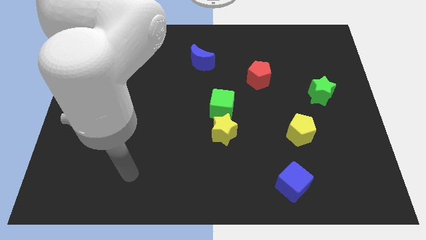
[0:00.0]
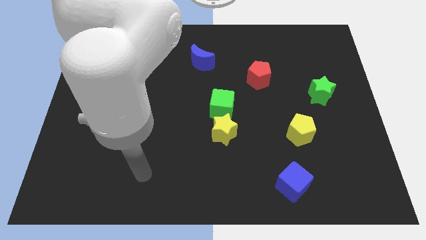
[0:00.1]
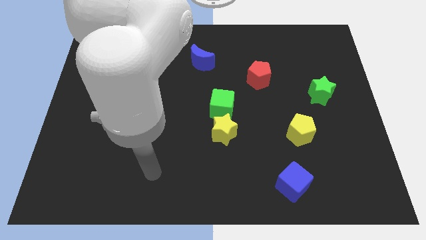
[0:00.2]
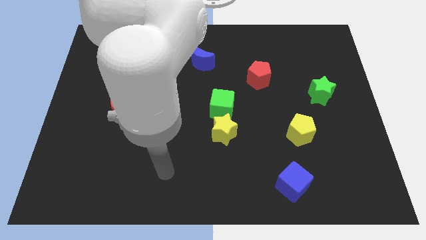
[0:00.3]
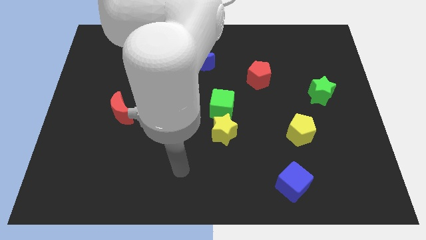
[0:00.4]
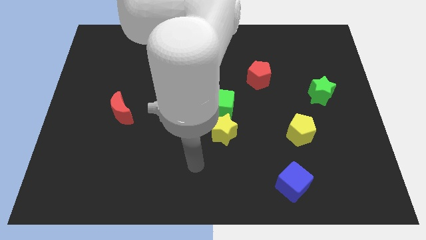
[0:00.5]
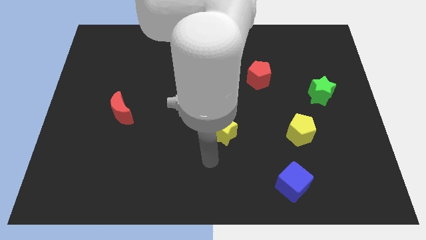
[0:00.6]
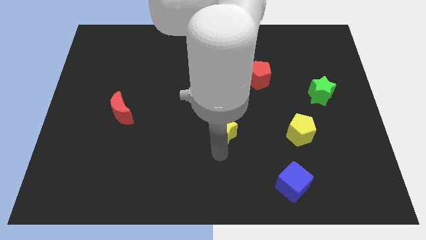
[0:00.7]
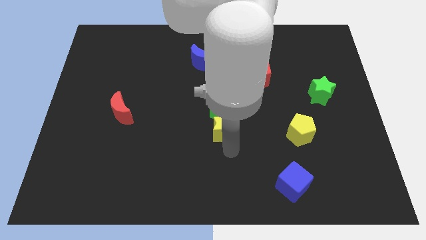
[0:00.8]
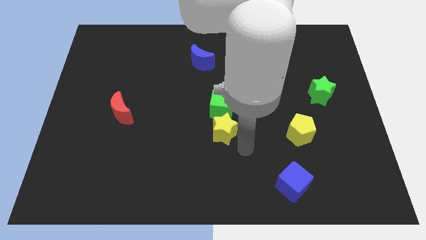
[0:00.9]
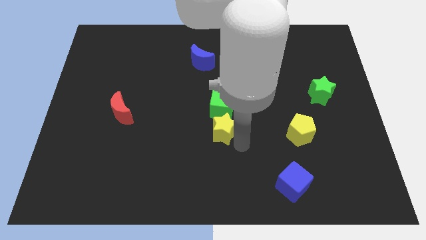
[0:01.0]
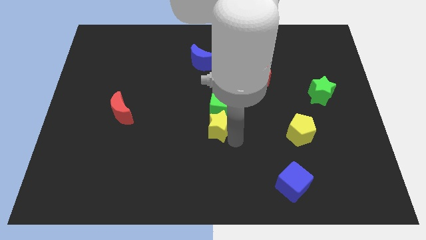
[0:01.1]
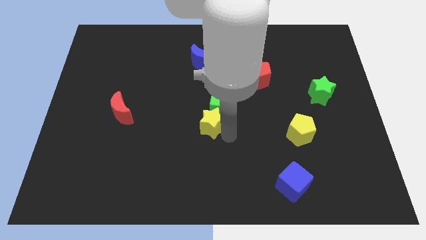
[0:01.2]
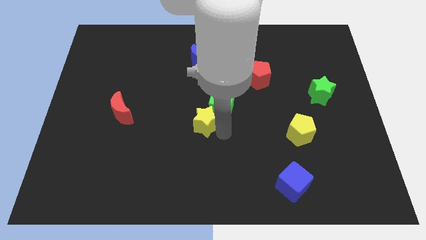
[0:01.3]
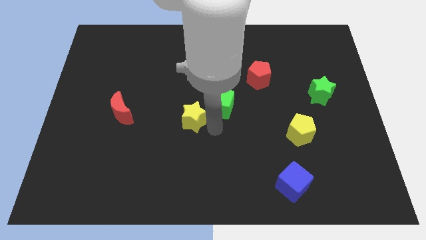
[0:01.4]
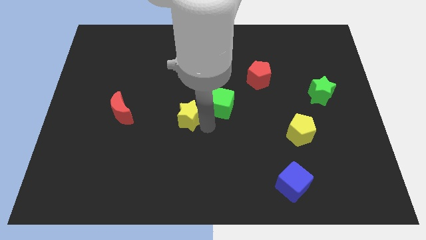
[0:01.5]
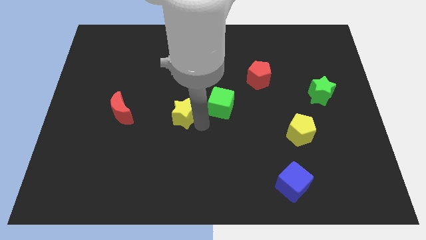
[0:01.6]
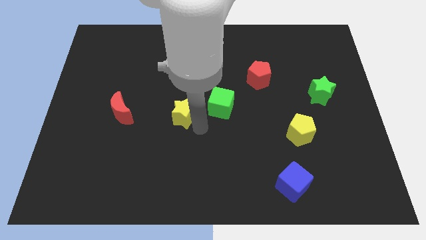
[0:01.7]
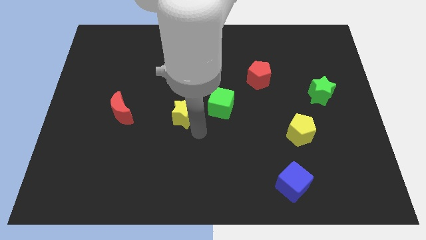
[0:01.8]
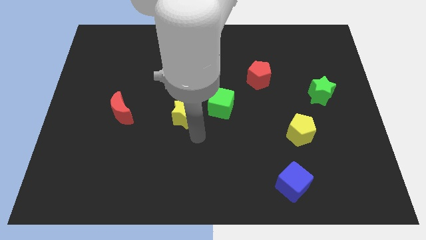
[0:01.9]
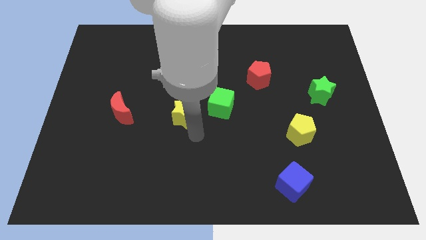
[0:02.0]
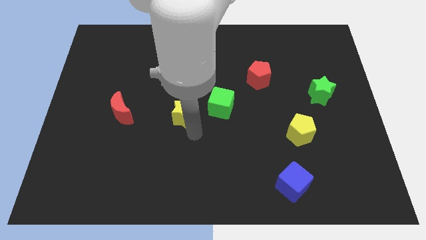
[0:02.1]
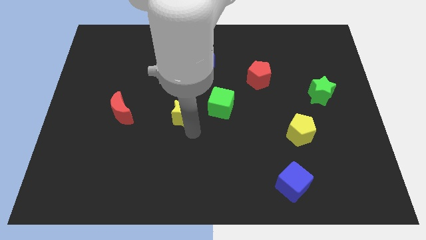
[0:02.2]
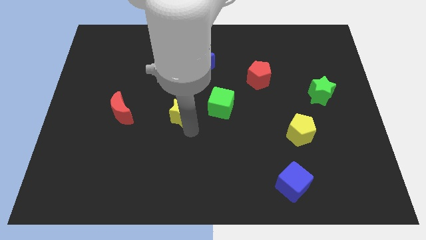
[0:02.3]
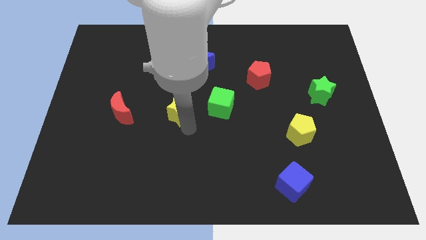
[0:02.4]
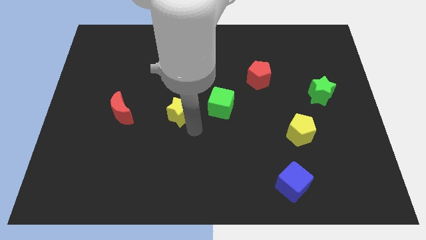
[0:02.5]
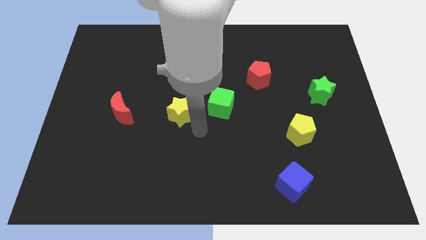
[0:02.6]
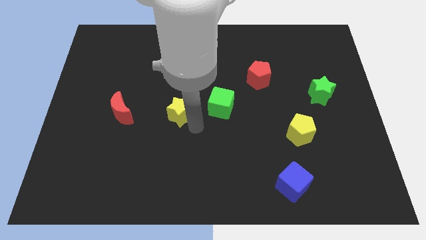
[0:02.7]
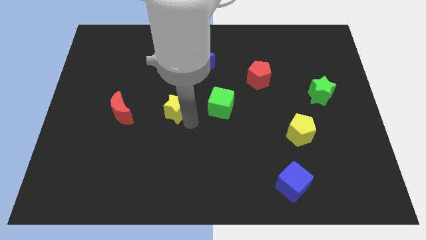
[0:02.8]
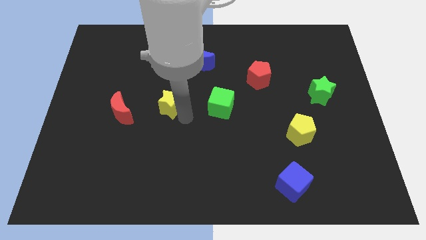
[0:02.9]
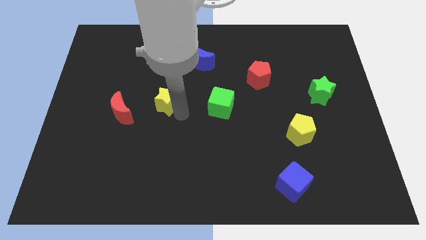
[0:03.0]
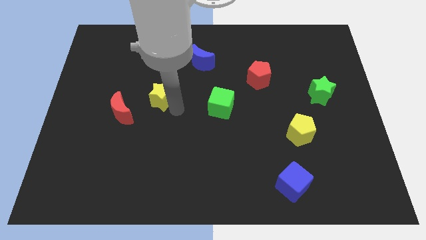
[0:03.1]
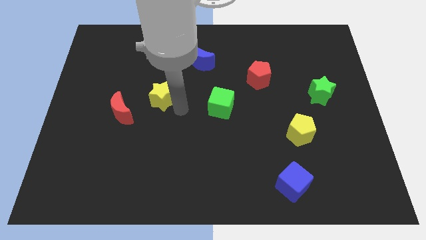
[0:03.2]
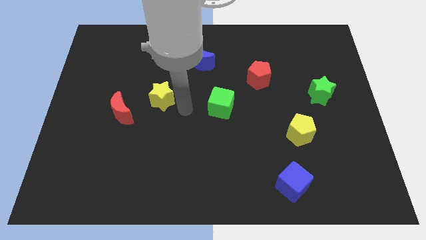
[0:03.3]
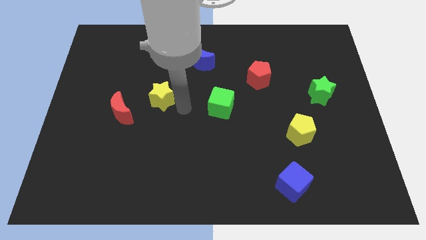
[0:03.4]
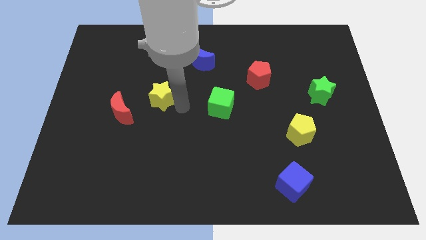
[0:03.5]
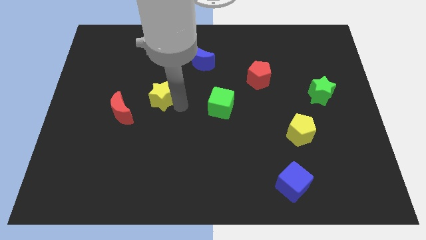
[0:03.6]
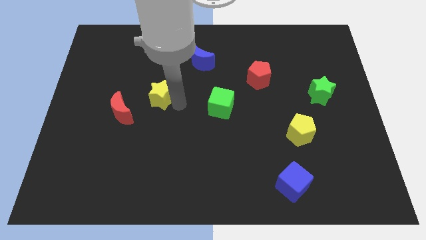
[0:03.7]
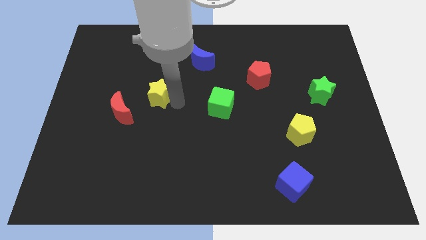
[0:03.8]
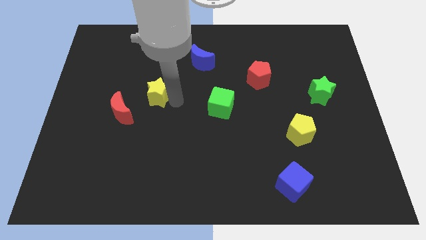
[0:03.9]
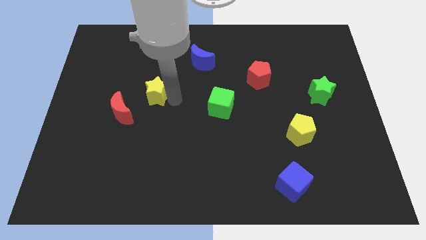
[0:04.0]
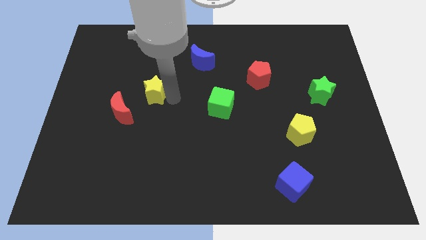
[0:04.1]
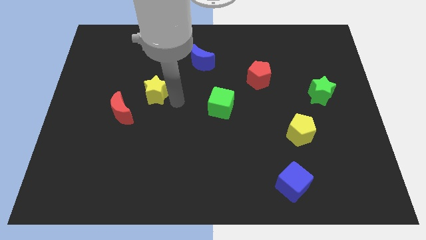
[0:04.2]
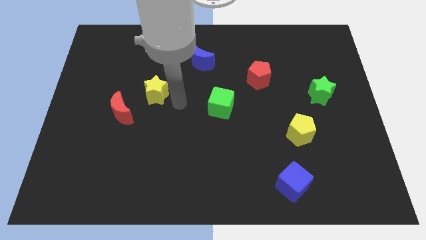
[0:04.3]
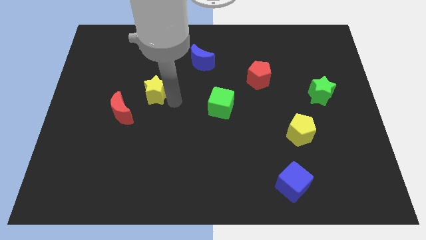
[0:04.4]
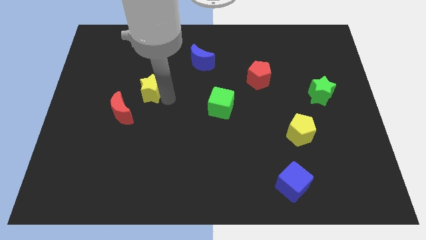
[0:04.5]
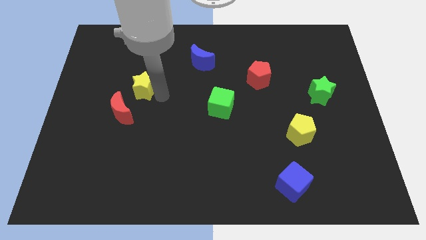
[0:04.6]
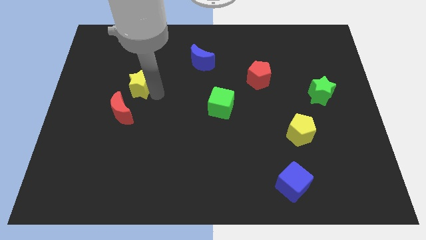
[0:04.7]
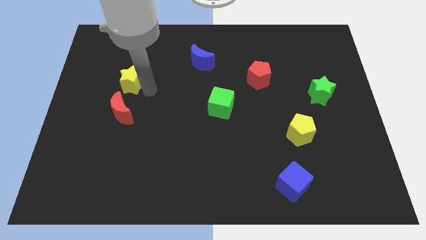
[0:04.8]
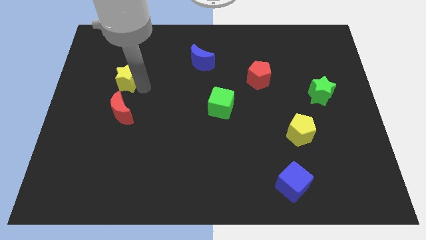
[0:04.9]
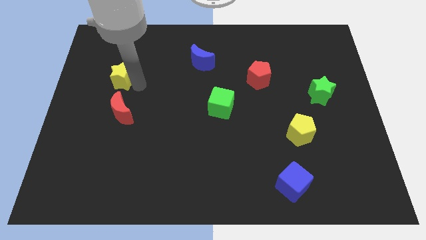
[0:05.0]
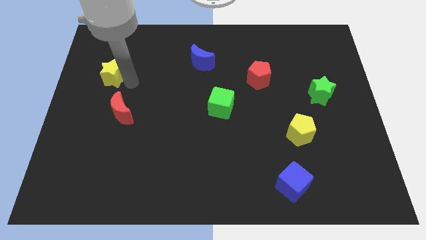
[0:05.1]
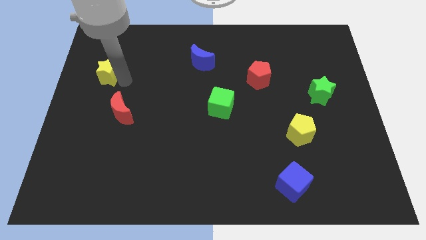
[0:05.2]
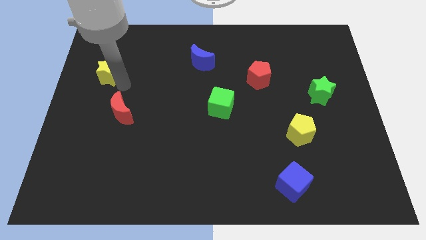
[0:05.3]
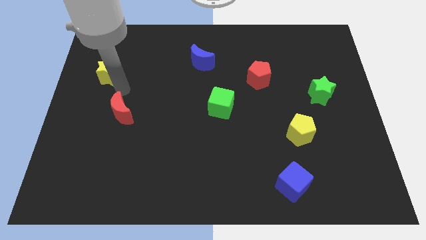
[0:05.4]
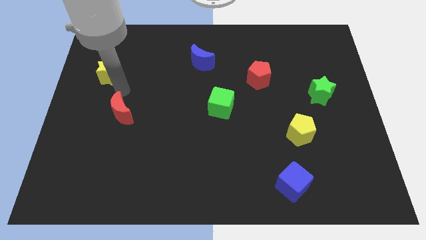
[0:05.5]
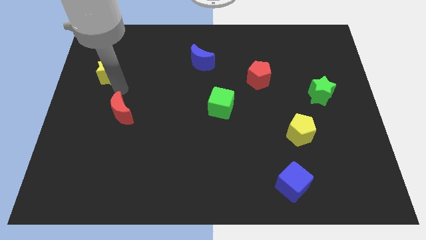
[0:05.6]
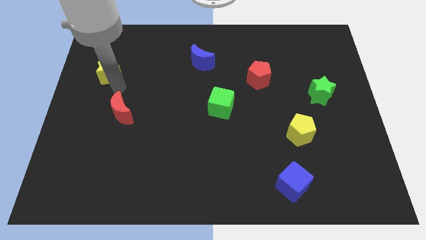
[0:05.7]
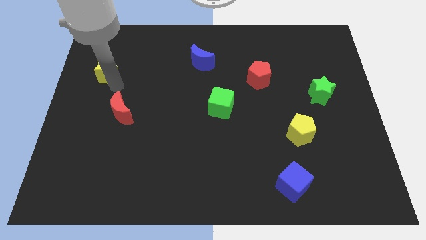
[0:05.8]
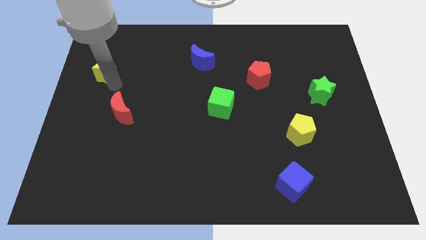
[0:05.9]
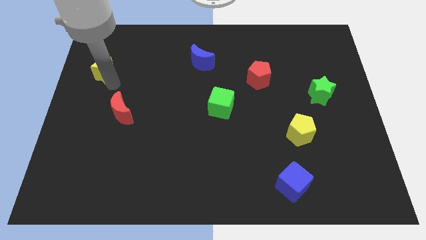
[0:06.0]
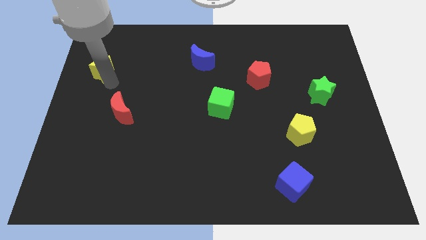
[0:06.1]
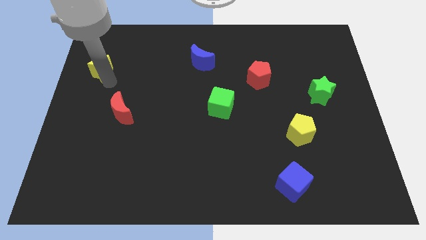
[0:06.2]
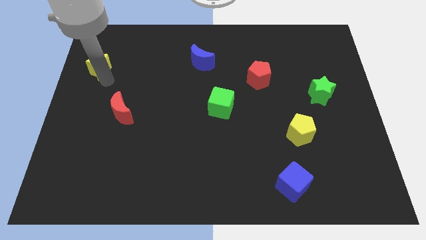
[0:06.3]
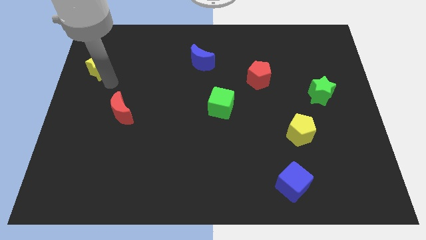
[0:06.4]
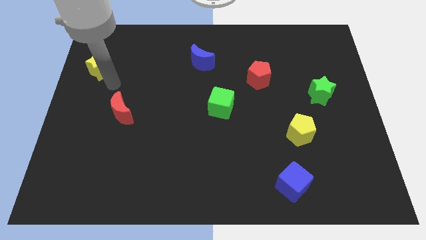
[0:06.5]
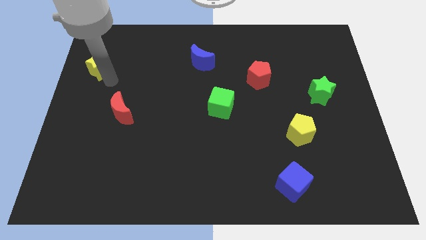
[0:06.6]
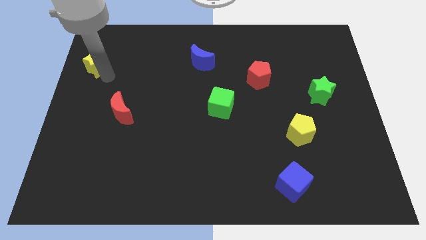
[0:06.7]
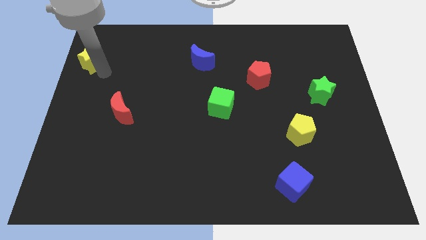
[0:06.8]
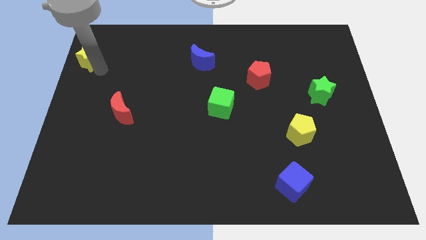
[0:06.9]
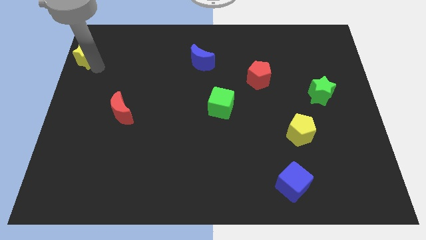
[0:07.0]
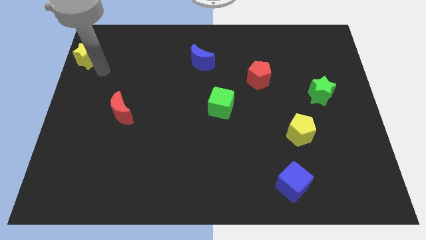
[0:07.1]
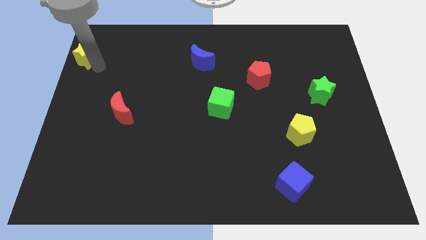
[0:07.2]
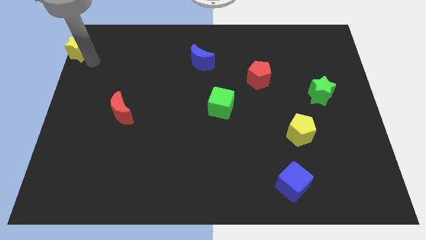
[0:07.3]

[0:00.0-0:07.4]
put the yellow star to the top left
